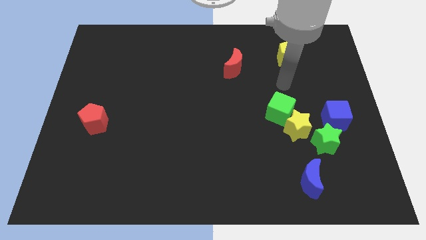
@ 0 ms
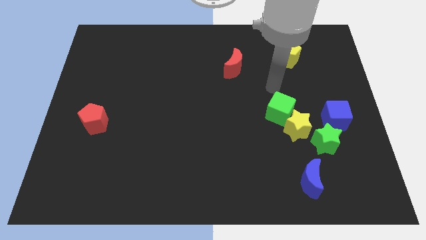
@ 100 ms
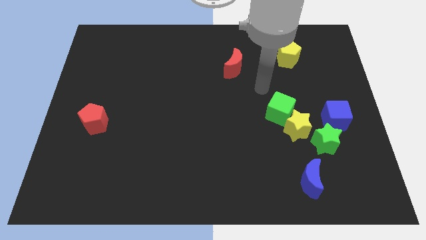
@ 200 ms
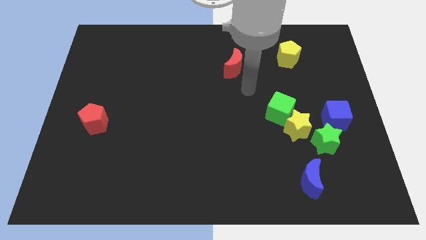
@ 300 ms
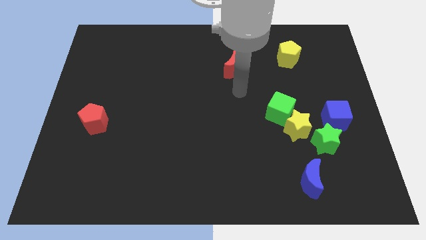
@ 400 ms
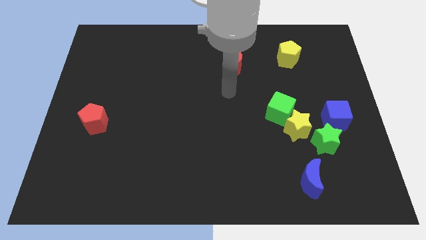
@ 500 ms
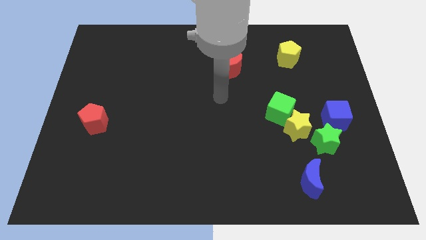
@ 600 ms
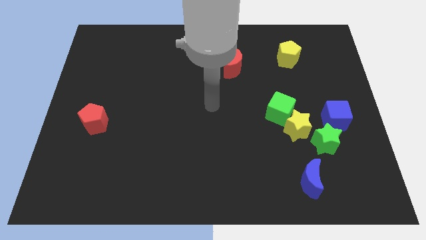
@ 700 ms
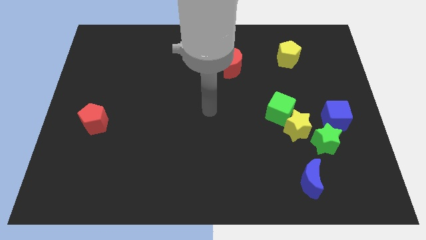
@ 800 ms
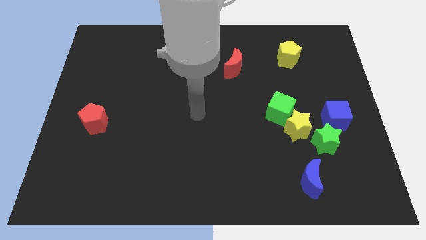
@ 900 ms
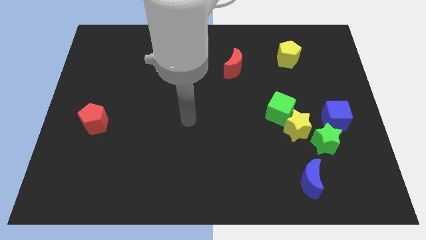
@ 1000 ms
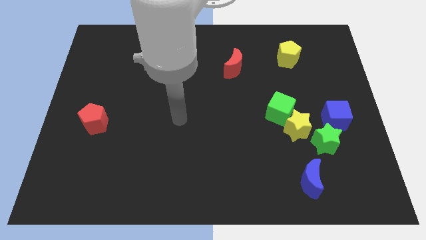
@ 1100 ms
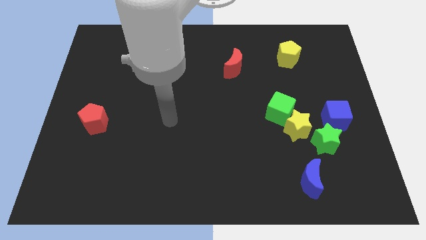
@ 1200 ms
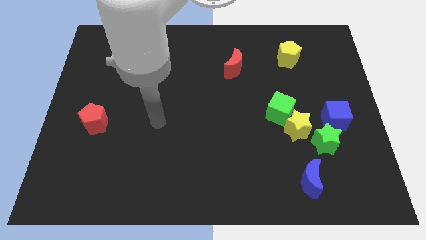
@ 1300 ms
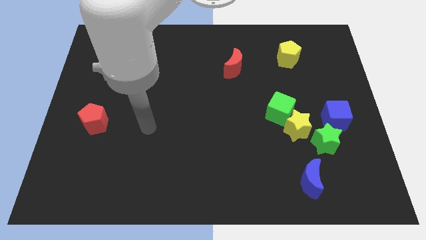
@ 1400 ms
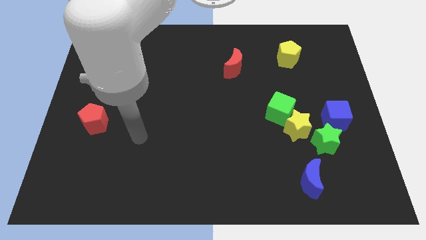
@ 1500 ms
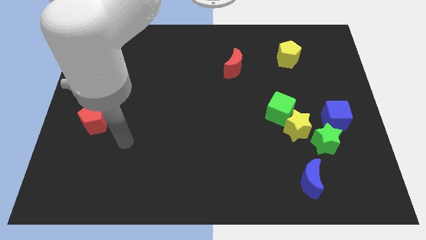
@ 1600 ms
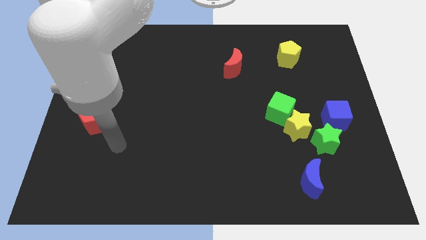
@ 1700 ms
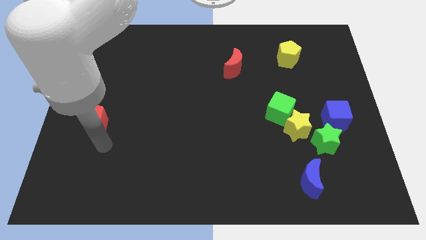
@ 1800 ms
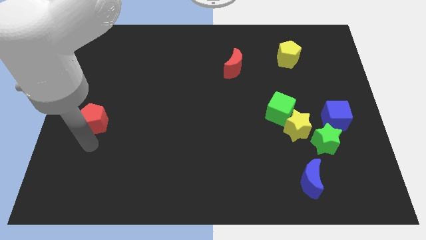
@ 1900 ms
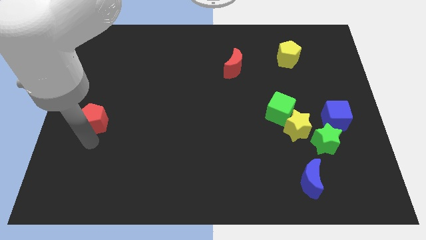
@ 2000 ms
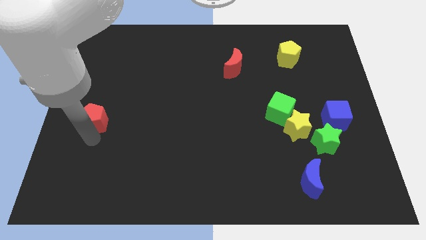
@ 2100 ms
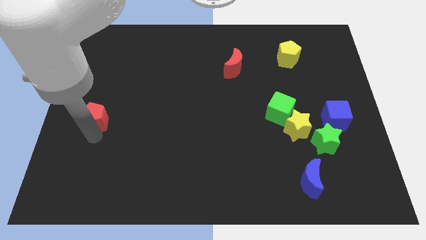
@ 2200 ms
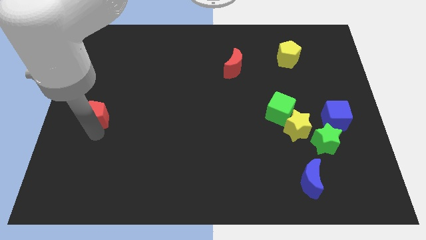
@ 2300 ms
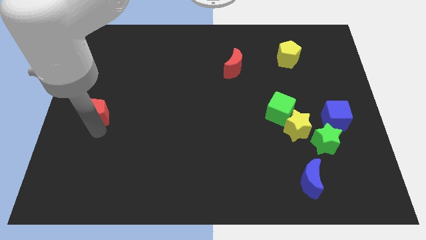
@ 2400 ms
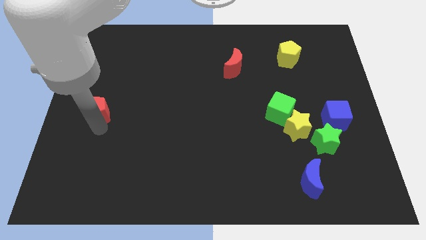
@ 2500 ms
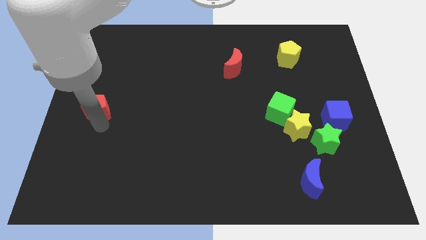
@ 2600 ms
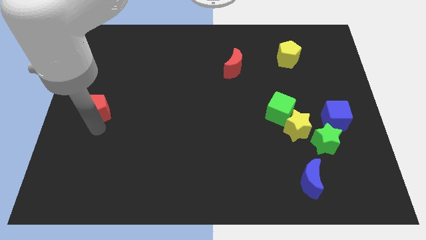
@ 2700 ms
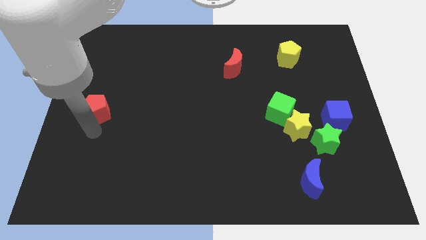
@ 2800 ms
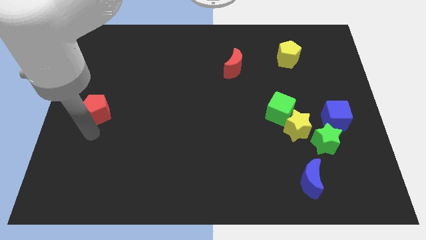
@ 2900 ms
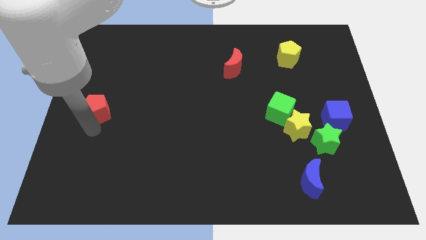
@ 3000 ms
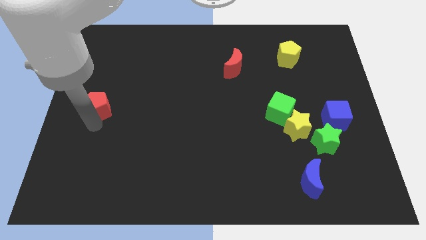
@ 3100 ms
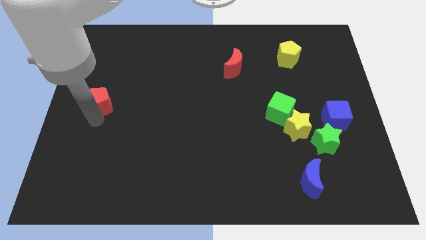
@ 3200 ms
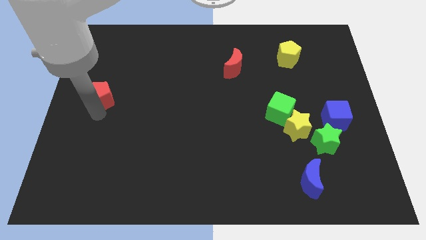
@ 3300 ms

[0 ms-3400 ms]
move the red pentagon somewhat up

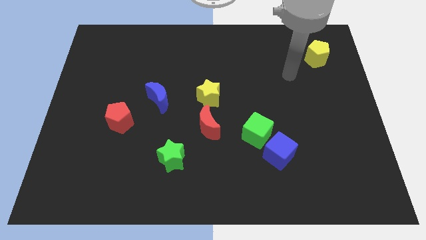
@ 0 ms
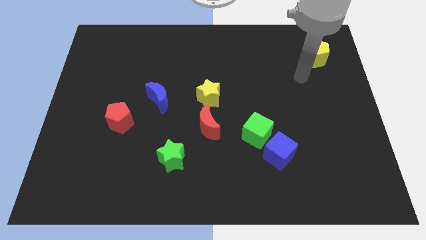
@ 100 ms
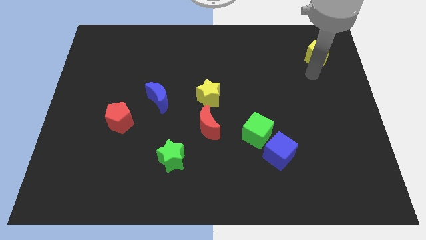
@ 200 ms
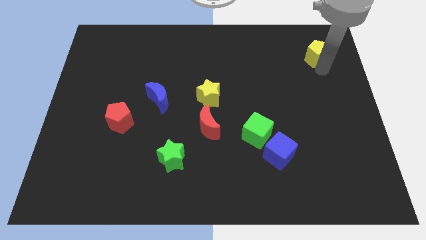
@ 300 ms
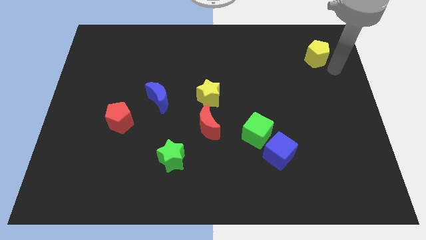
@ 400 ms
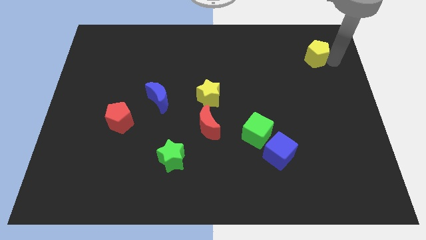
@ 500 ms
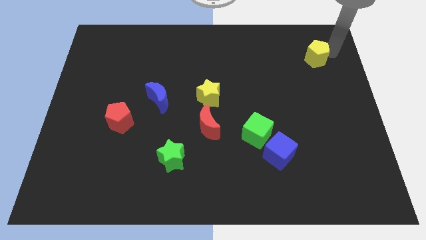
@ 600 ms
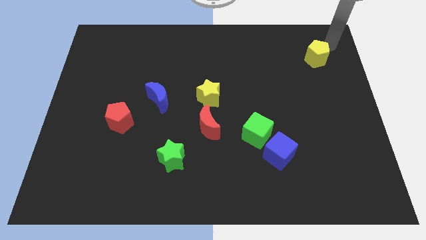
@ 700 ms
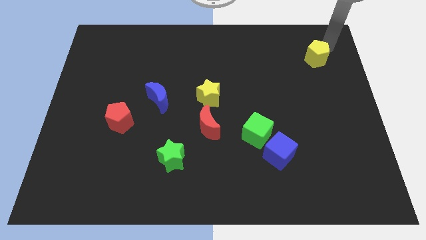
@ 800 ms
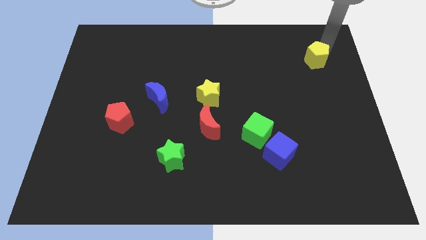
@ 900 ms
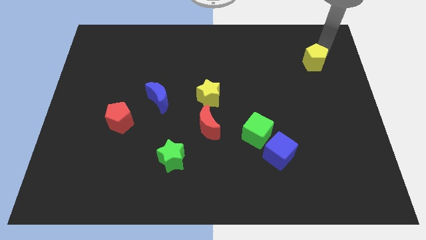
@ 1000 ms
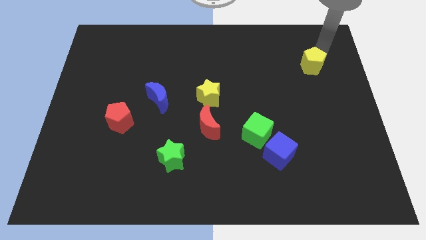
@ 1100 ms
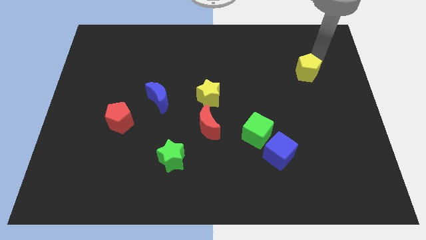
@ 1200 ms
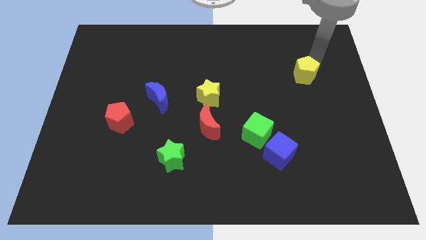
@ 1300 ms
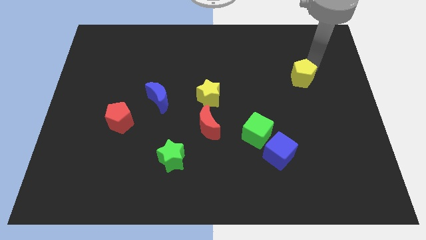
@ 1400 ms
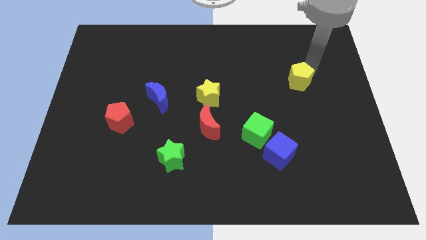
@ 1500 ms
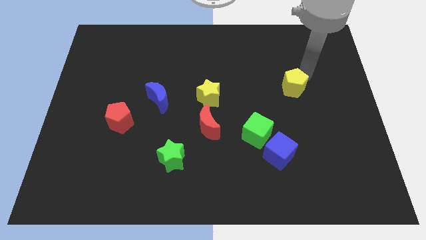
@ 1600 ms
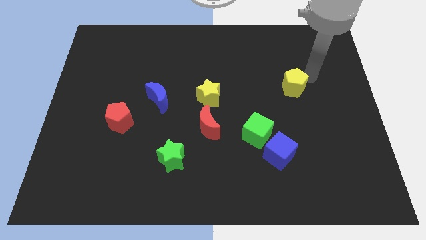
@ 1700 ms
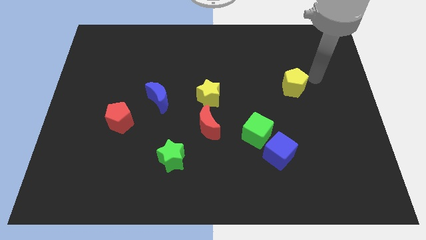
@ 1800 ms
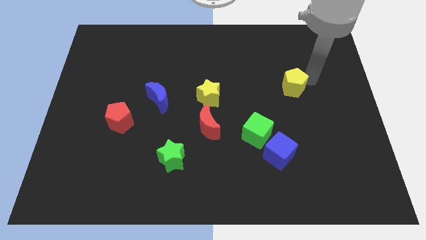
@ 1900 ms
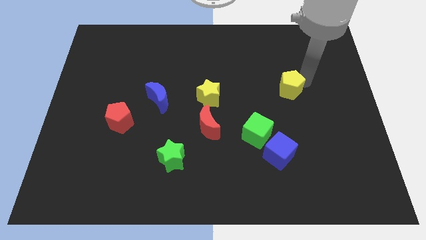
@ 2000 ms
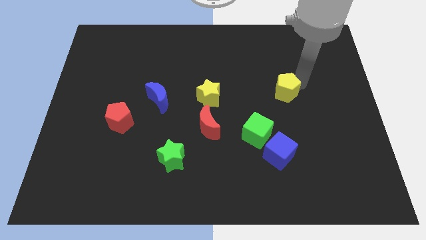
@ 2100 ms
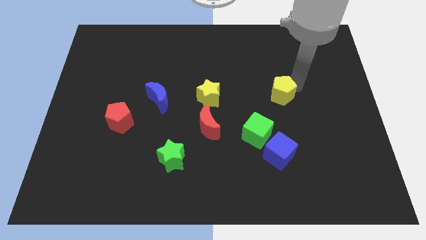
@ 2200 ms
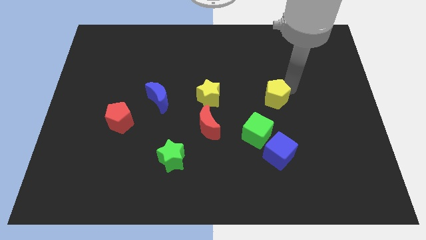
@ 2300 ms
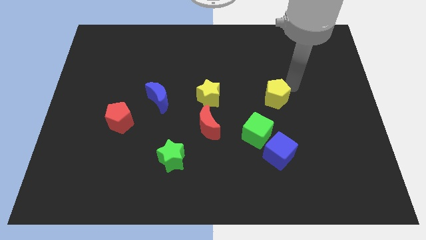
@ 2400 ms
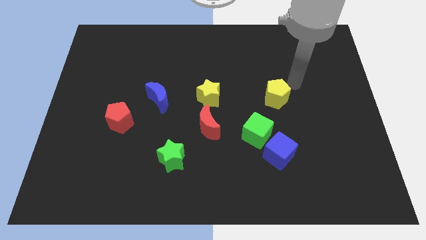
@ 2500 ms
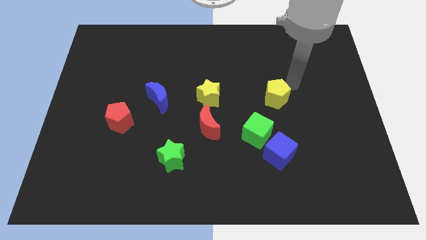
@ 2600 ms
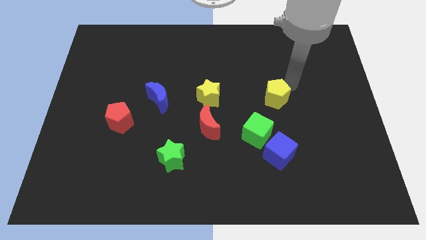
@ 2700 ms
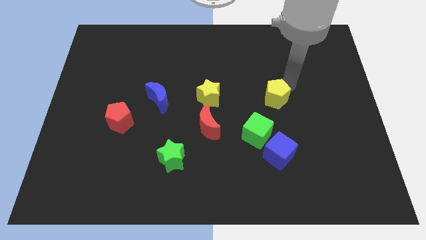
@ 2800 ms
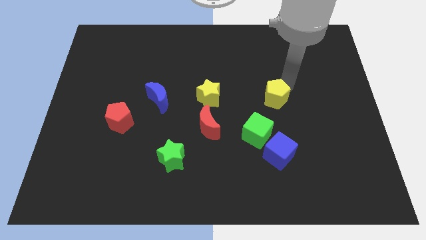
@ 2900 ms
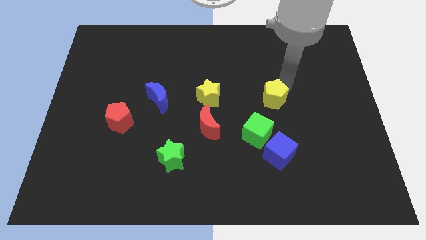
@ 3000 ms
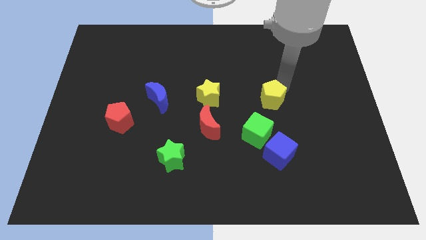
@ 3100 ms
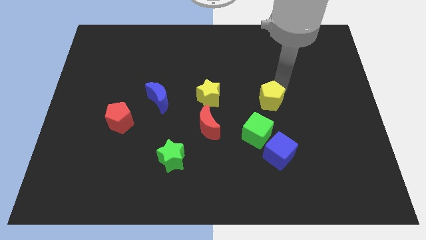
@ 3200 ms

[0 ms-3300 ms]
slide the yellow pentagon diagonally down and left

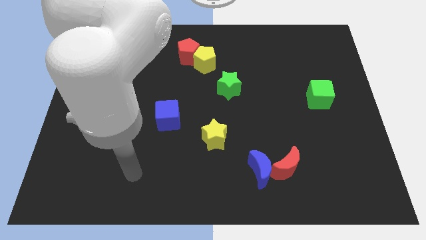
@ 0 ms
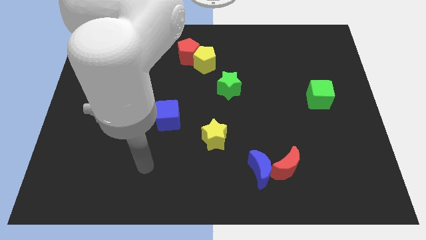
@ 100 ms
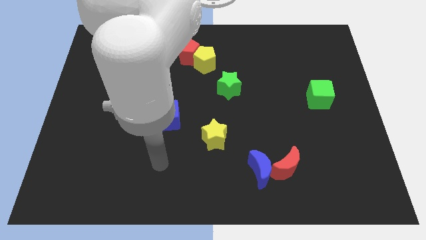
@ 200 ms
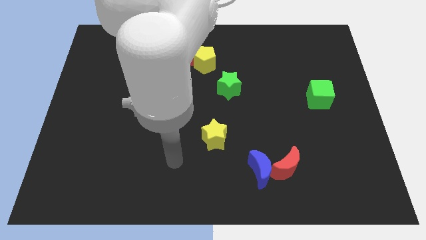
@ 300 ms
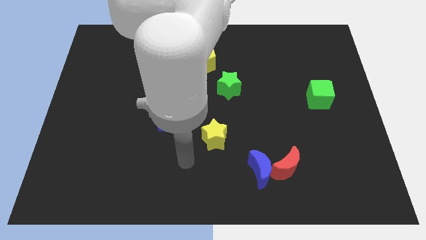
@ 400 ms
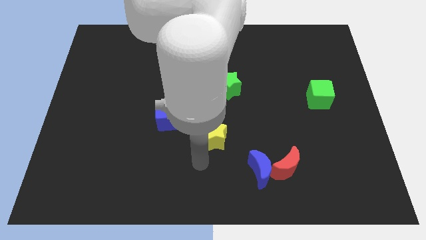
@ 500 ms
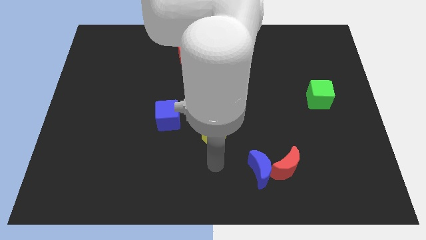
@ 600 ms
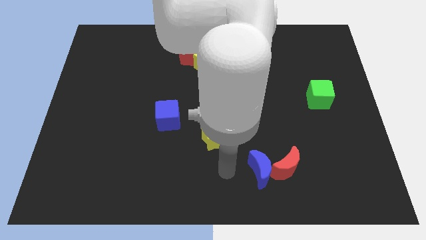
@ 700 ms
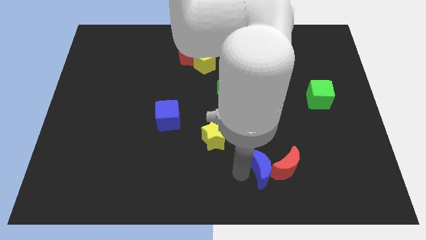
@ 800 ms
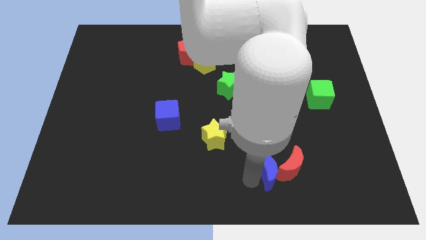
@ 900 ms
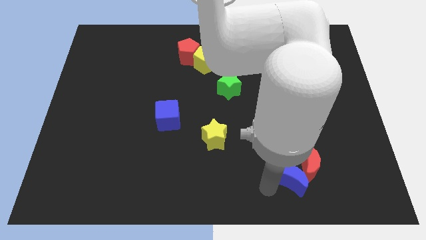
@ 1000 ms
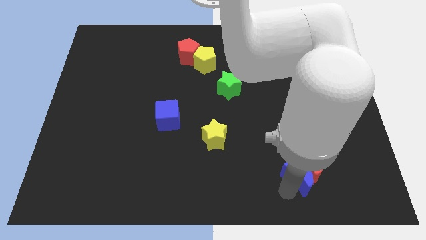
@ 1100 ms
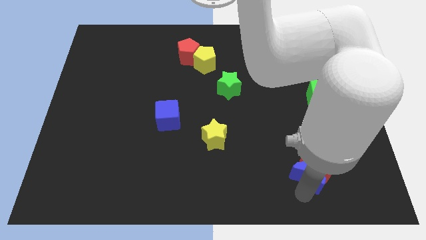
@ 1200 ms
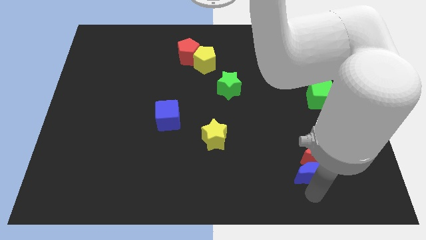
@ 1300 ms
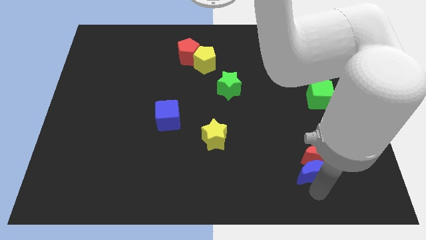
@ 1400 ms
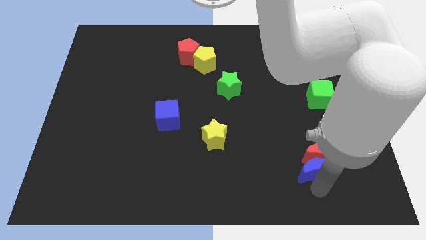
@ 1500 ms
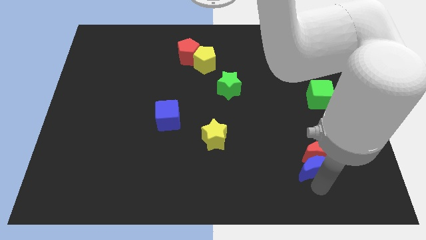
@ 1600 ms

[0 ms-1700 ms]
slide the red moon slightly upwards and to the right diagonally
